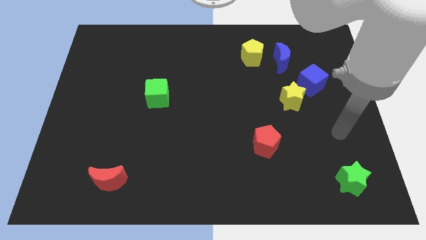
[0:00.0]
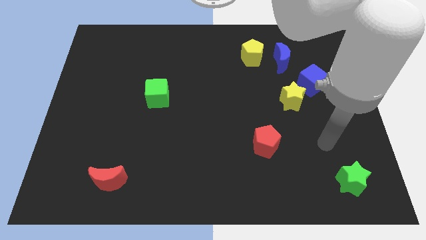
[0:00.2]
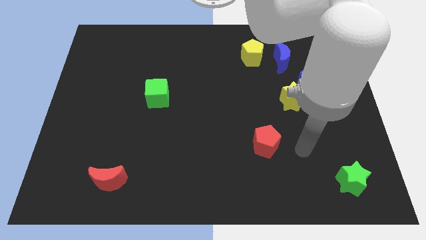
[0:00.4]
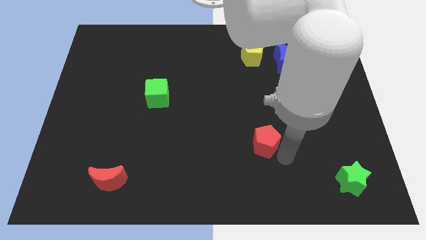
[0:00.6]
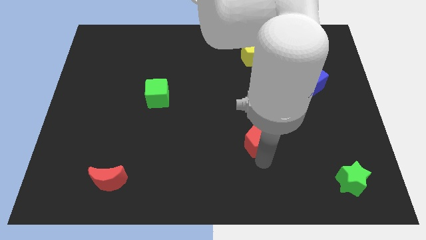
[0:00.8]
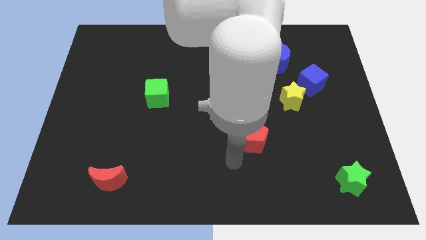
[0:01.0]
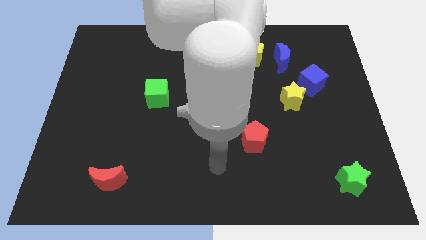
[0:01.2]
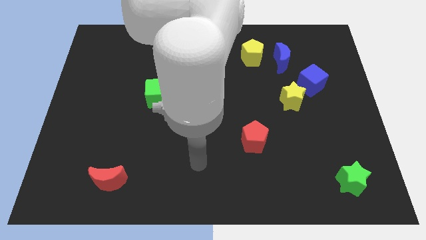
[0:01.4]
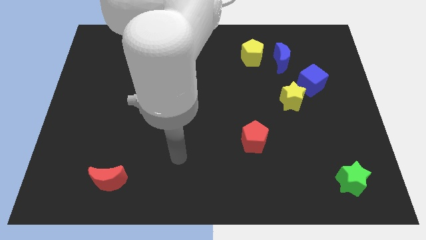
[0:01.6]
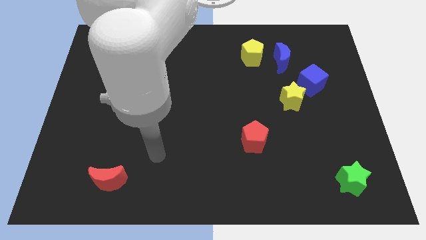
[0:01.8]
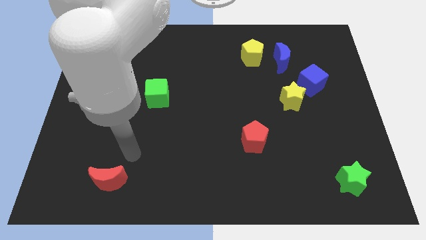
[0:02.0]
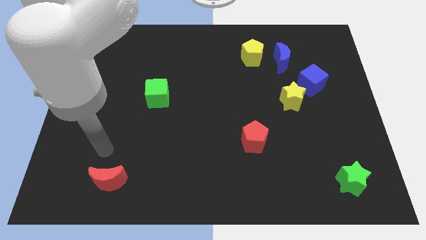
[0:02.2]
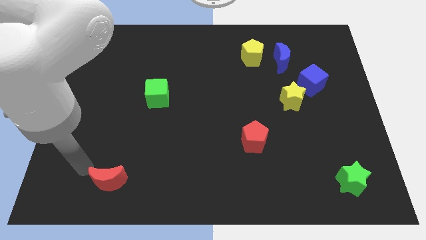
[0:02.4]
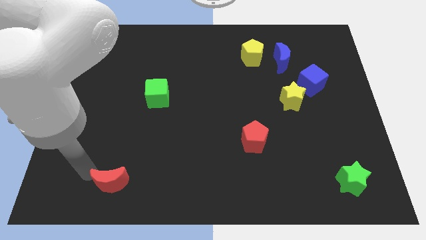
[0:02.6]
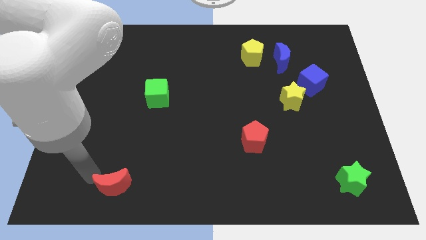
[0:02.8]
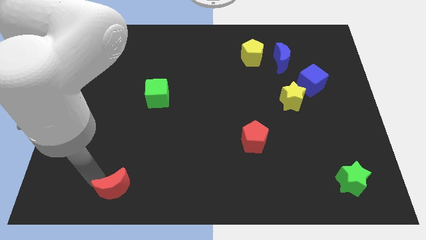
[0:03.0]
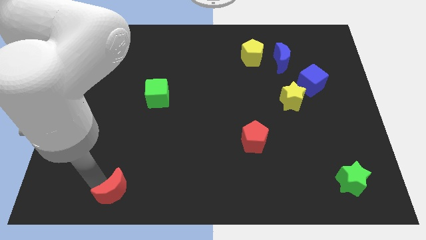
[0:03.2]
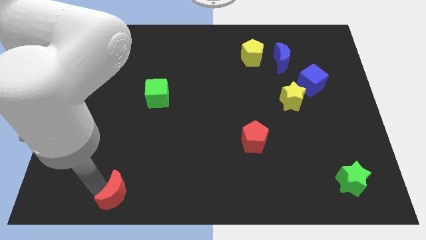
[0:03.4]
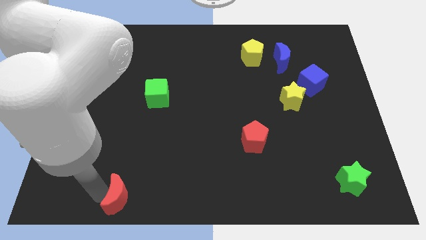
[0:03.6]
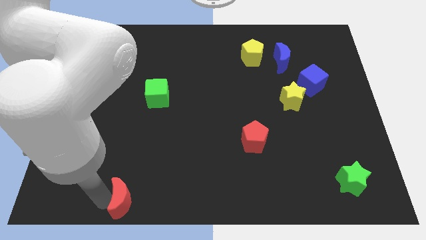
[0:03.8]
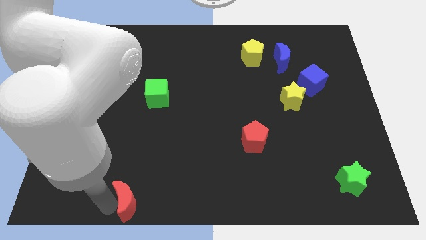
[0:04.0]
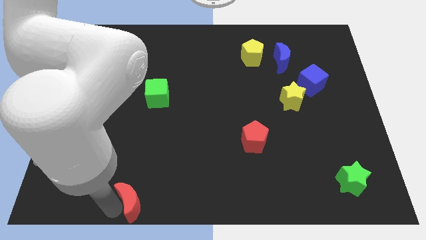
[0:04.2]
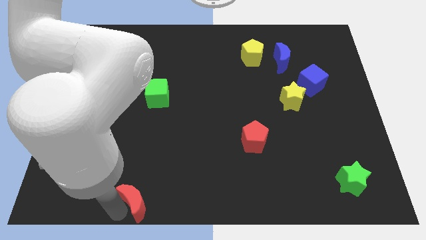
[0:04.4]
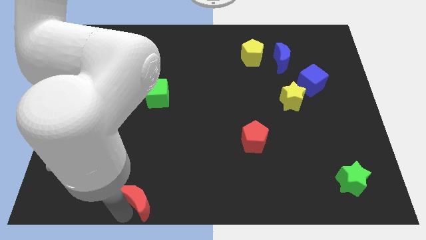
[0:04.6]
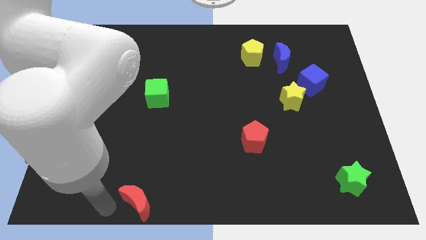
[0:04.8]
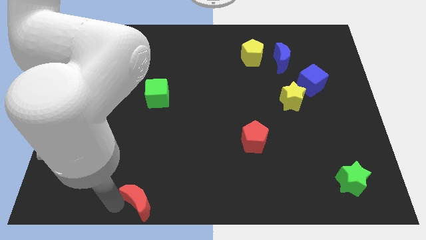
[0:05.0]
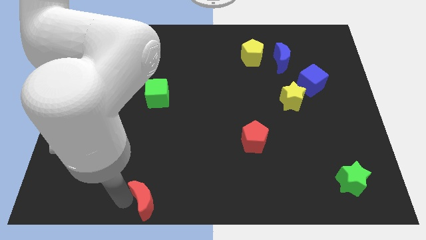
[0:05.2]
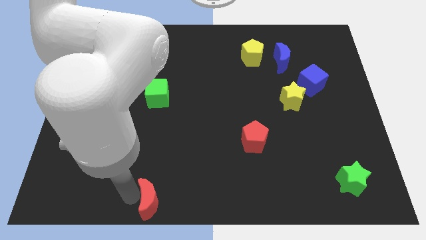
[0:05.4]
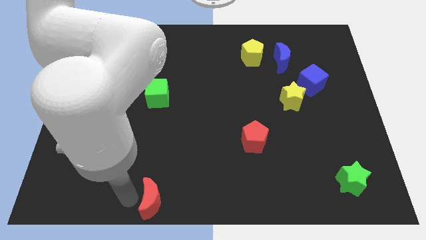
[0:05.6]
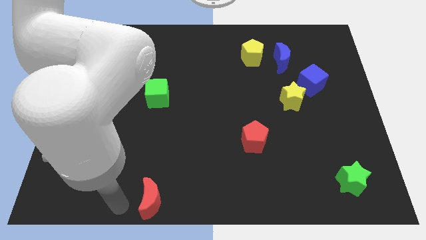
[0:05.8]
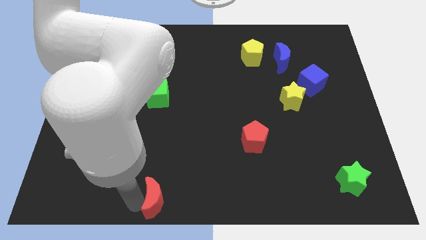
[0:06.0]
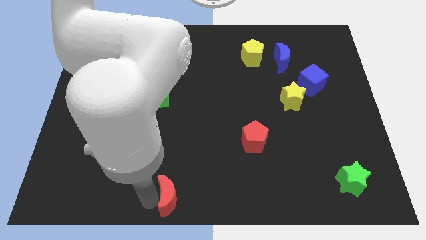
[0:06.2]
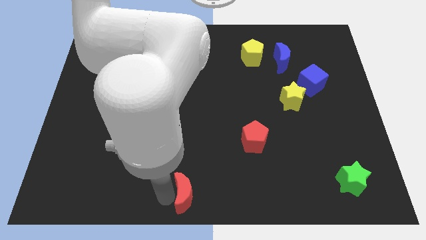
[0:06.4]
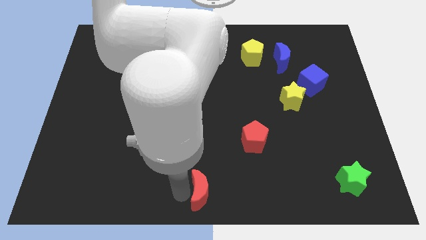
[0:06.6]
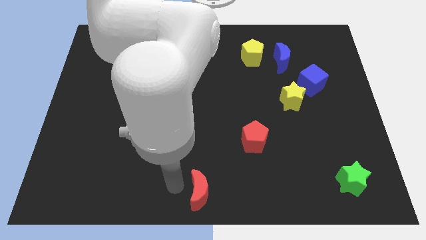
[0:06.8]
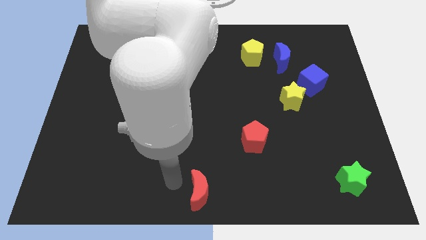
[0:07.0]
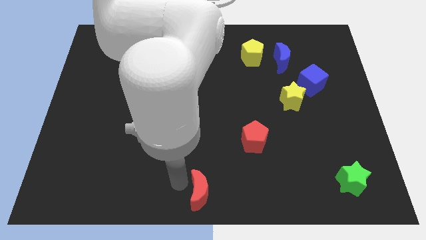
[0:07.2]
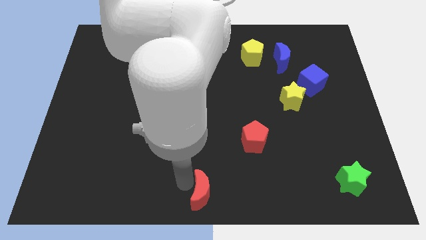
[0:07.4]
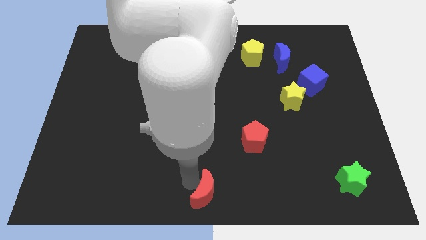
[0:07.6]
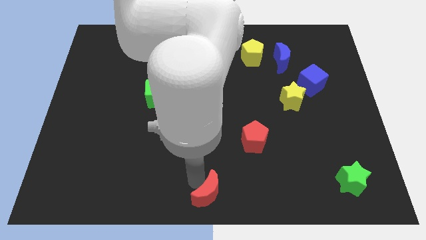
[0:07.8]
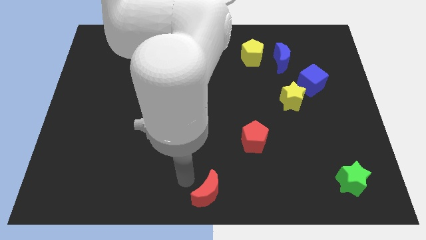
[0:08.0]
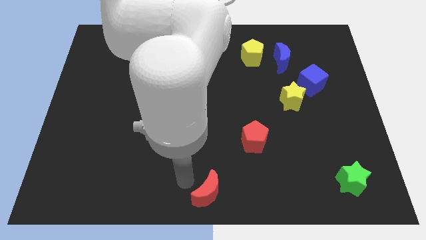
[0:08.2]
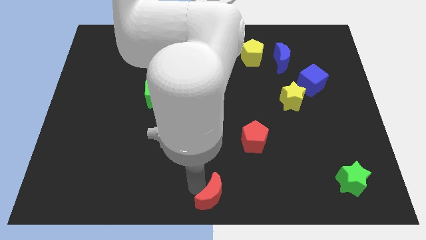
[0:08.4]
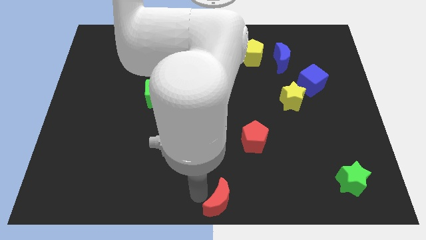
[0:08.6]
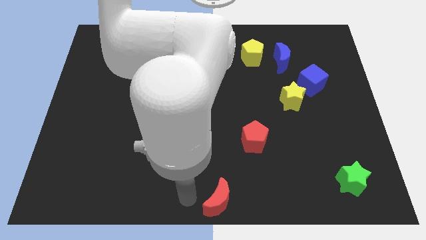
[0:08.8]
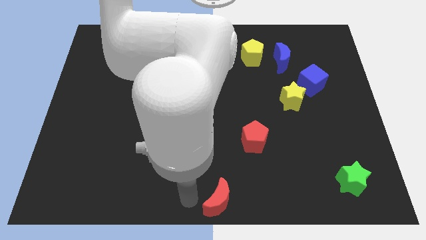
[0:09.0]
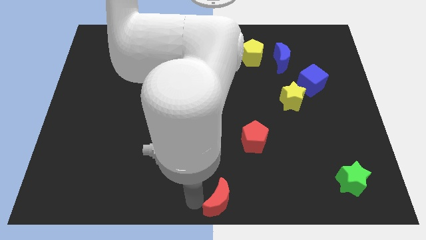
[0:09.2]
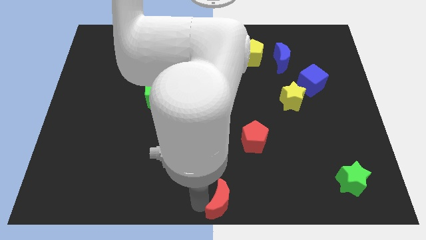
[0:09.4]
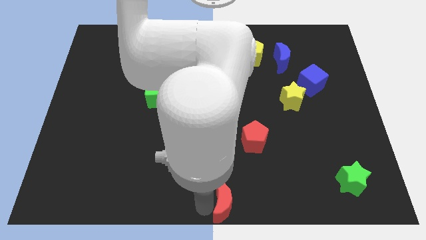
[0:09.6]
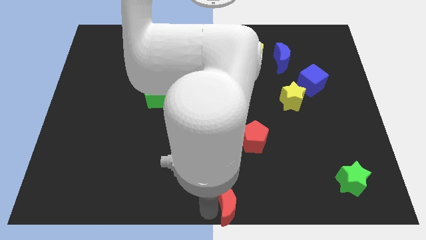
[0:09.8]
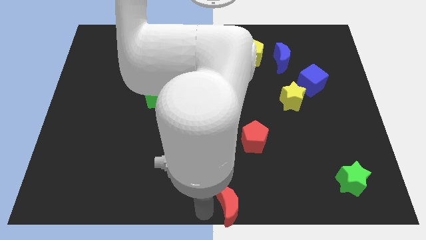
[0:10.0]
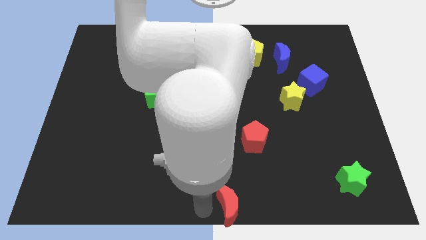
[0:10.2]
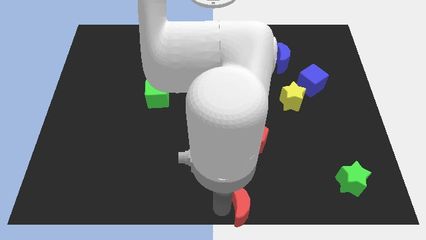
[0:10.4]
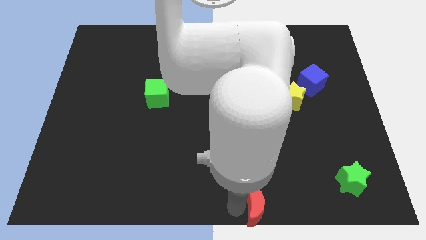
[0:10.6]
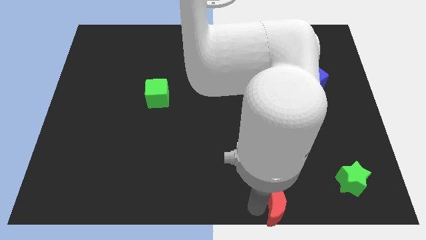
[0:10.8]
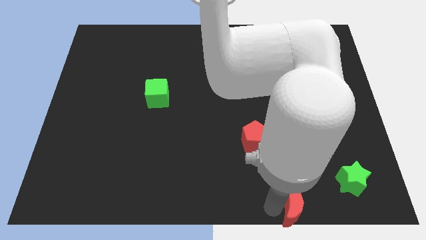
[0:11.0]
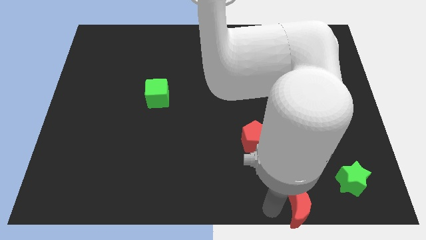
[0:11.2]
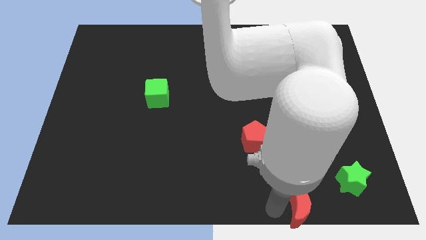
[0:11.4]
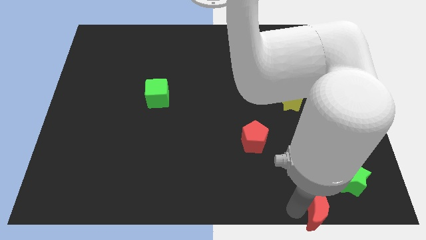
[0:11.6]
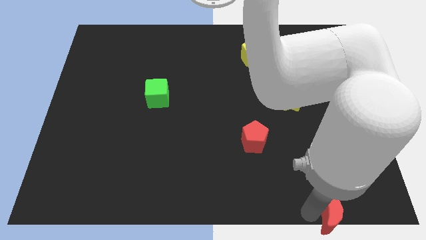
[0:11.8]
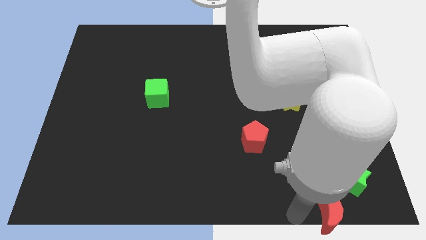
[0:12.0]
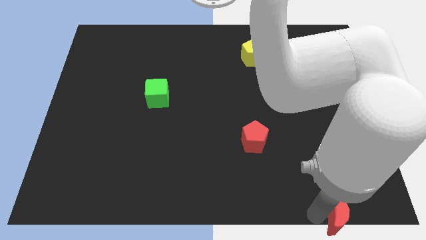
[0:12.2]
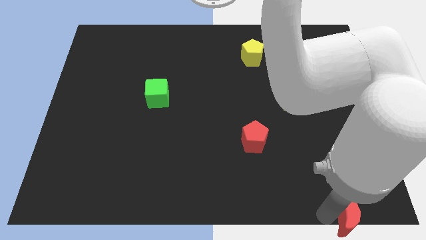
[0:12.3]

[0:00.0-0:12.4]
put the red moon to the bottom right
